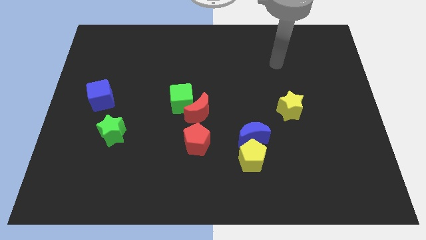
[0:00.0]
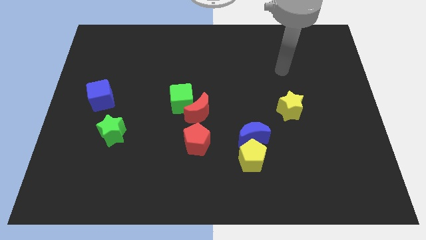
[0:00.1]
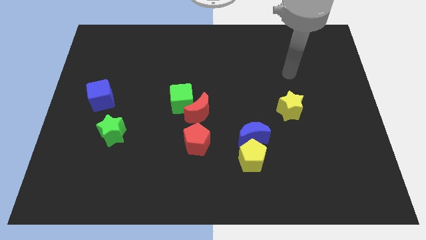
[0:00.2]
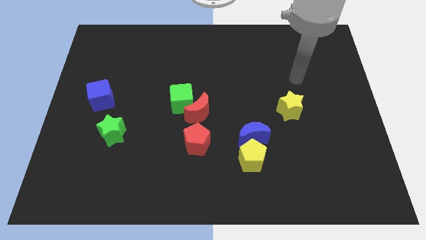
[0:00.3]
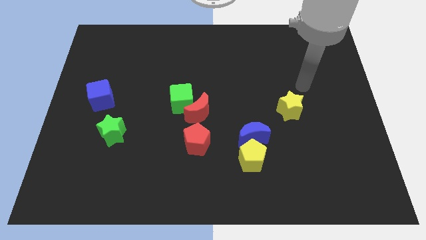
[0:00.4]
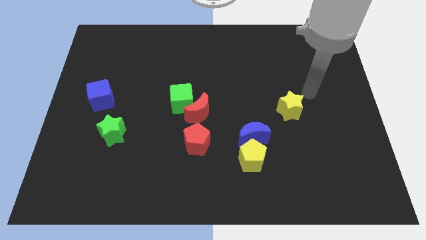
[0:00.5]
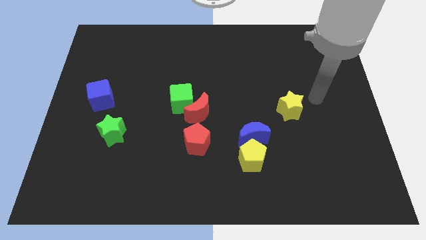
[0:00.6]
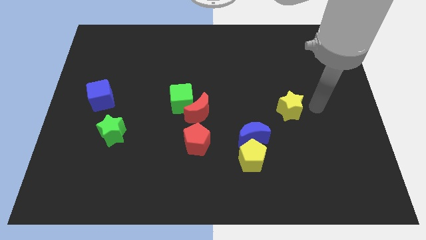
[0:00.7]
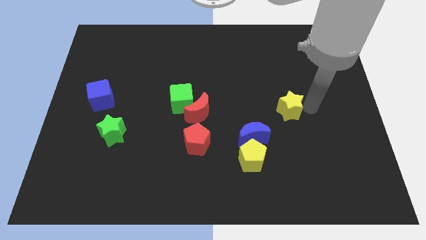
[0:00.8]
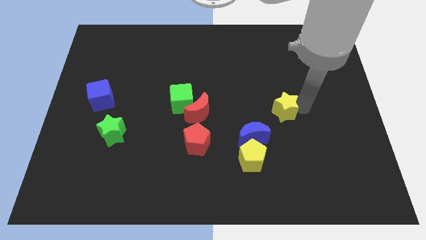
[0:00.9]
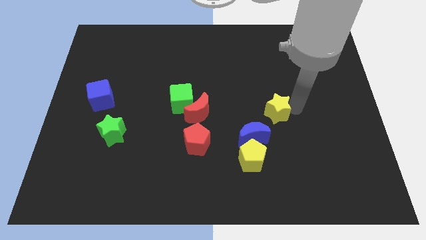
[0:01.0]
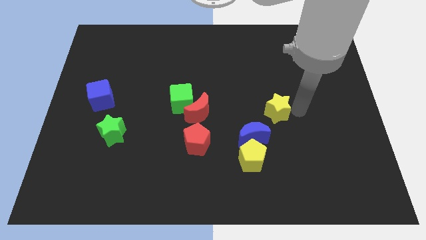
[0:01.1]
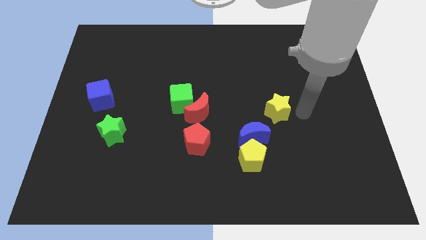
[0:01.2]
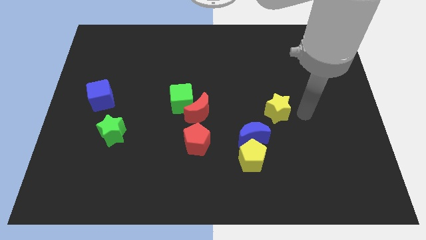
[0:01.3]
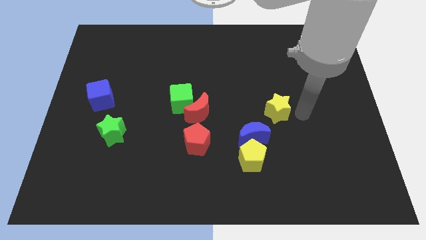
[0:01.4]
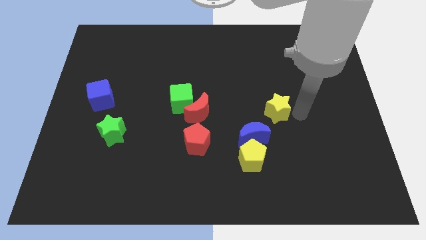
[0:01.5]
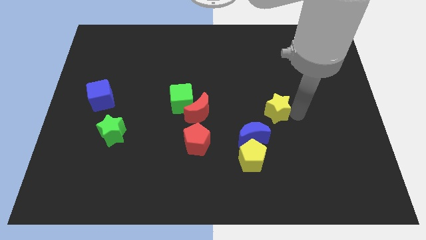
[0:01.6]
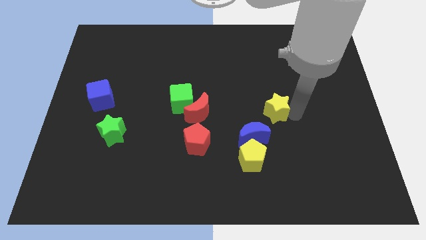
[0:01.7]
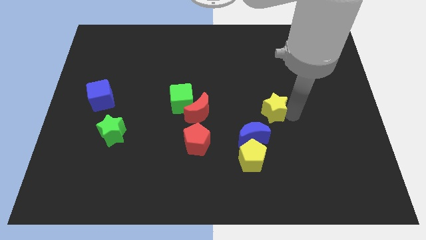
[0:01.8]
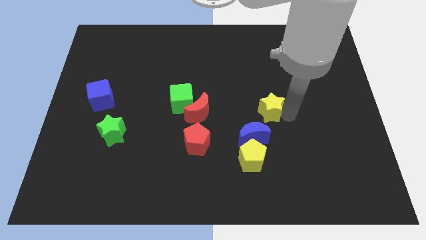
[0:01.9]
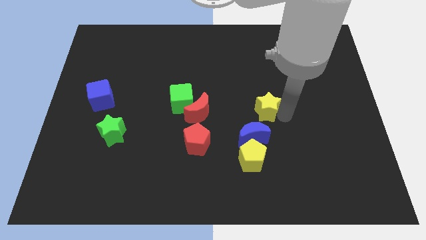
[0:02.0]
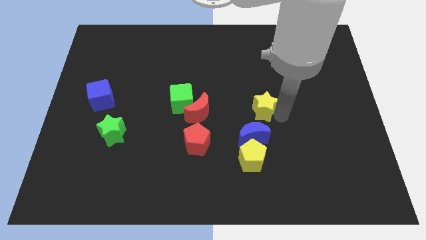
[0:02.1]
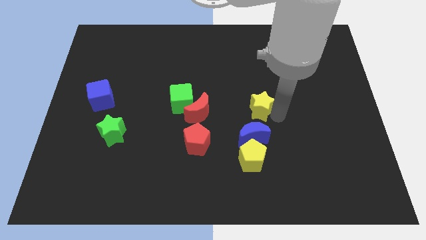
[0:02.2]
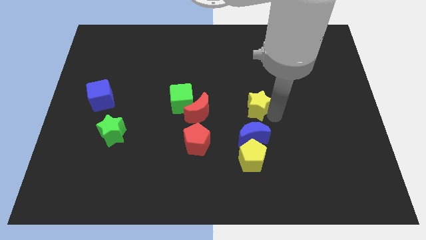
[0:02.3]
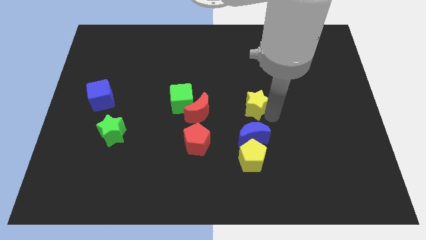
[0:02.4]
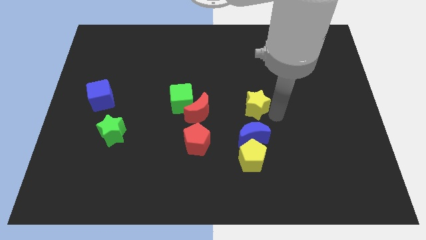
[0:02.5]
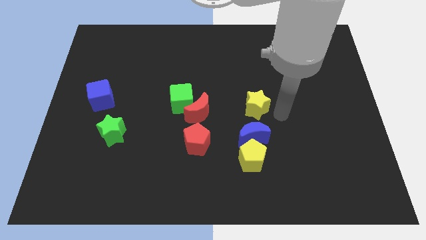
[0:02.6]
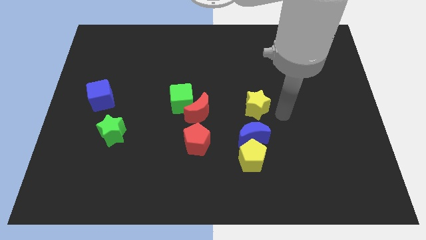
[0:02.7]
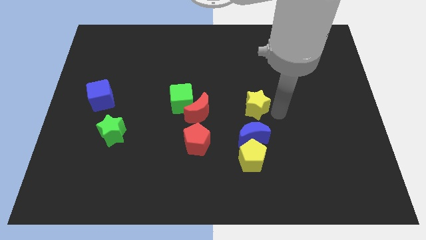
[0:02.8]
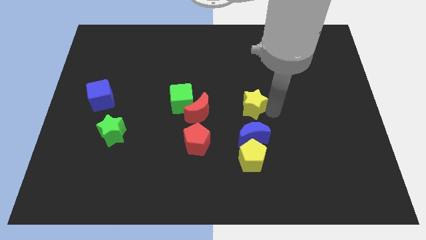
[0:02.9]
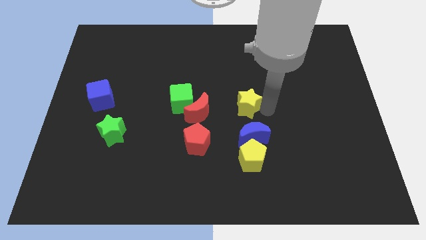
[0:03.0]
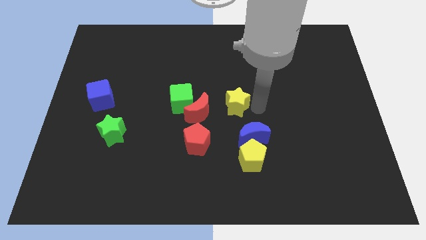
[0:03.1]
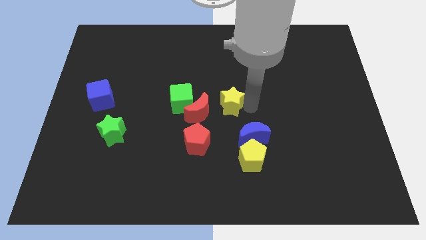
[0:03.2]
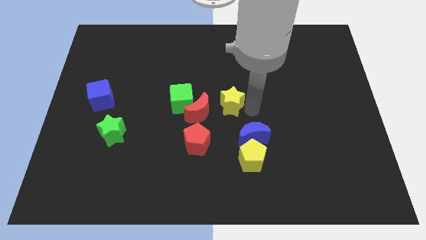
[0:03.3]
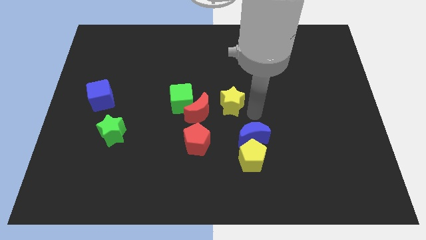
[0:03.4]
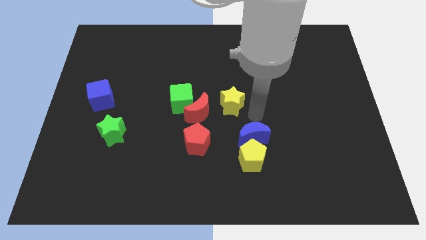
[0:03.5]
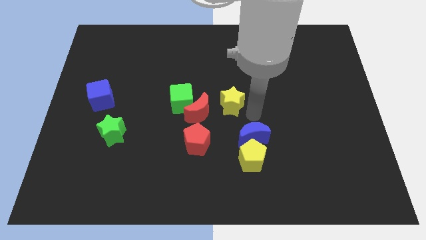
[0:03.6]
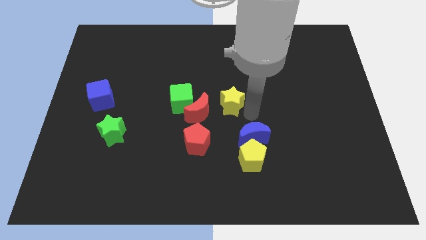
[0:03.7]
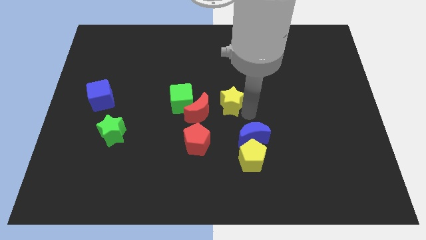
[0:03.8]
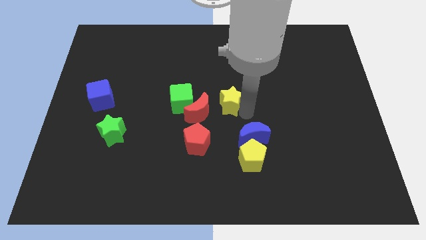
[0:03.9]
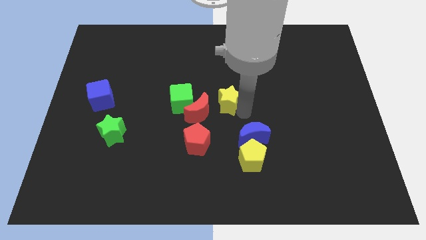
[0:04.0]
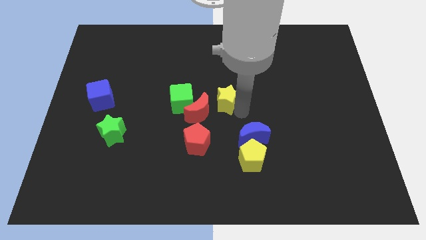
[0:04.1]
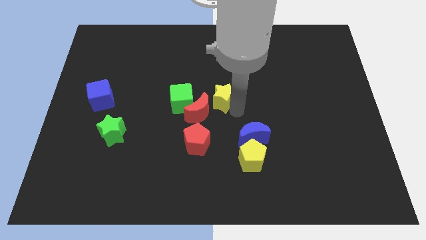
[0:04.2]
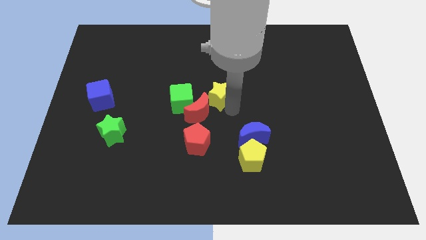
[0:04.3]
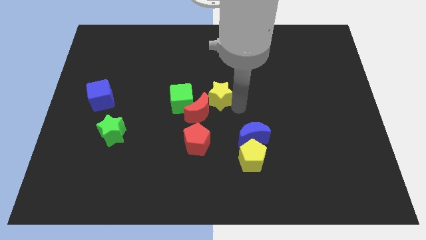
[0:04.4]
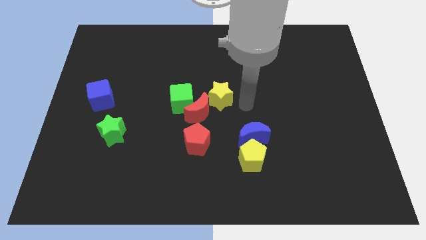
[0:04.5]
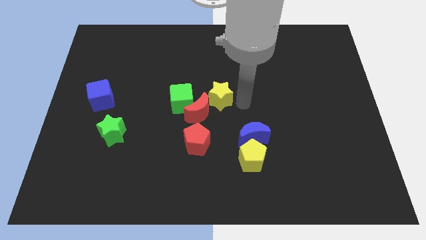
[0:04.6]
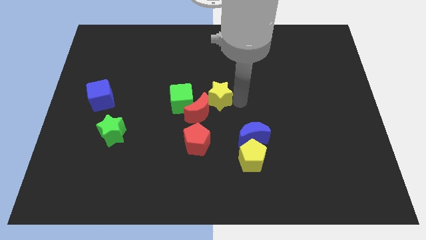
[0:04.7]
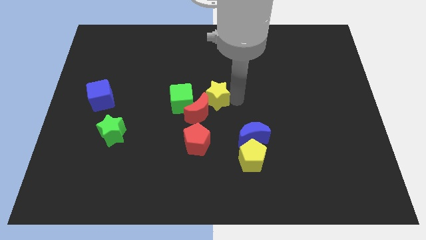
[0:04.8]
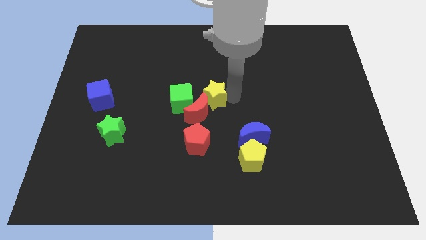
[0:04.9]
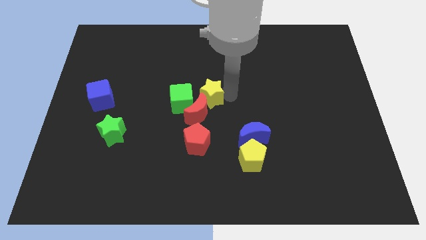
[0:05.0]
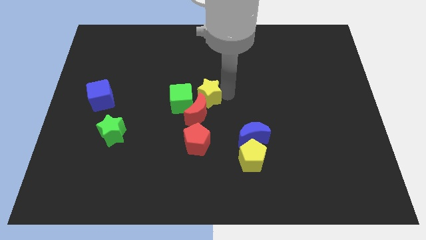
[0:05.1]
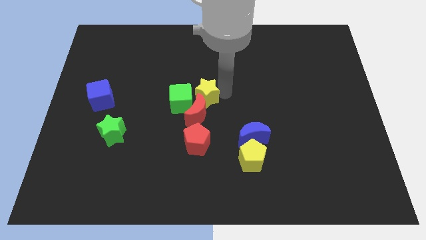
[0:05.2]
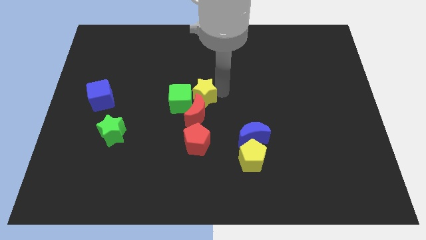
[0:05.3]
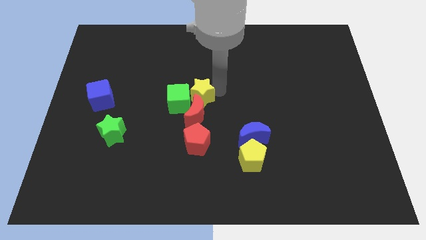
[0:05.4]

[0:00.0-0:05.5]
slide the yellow star to the left

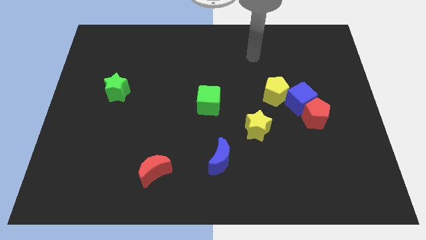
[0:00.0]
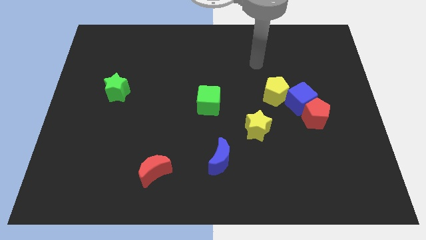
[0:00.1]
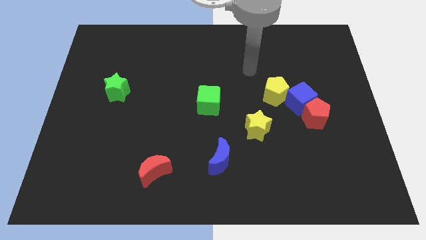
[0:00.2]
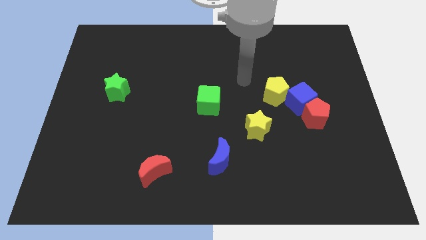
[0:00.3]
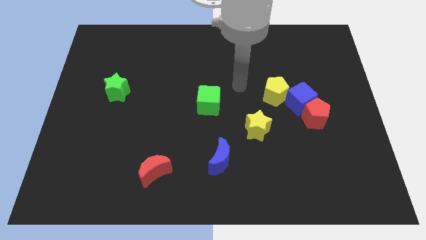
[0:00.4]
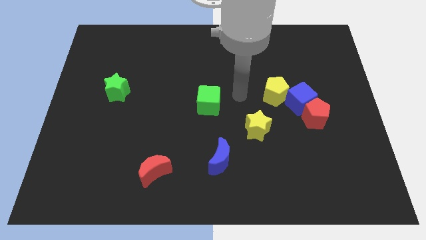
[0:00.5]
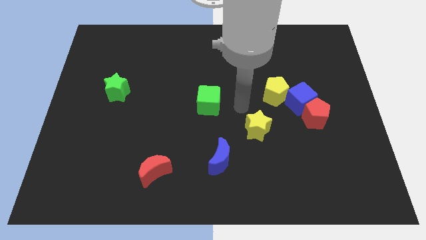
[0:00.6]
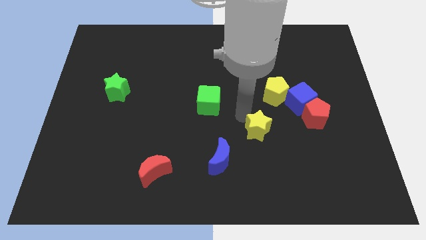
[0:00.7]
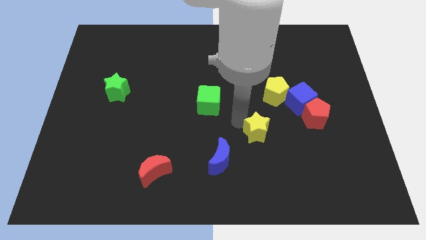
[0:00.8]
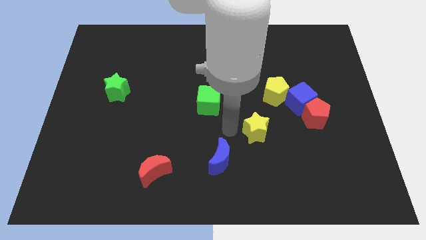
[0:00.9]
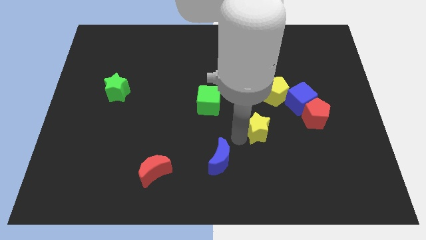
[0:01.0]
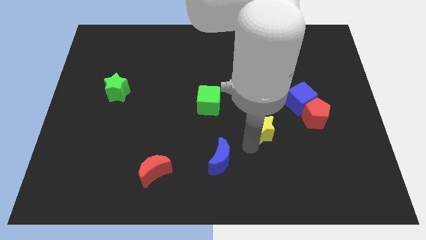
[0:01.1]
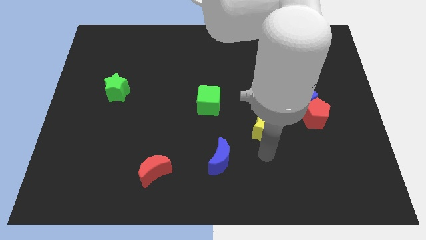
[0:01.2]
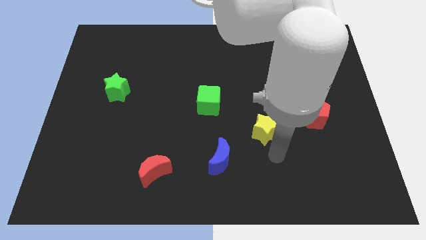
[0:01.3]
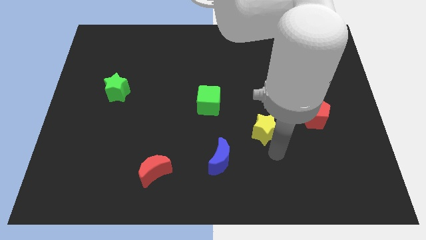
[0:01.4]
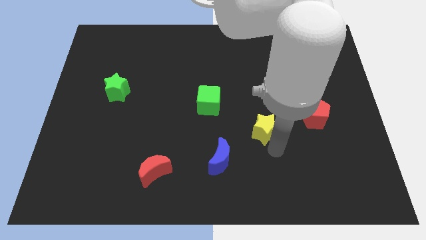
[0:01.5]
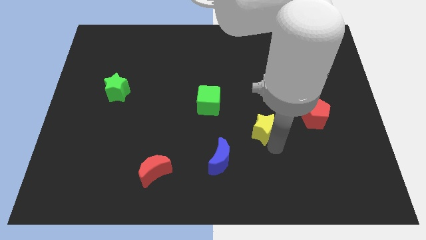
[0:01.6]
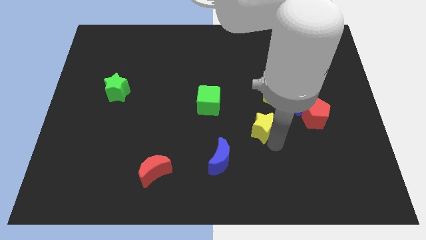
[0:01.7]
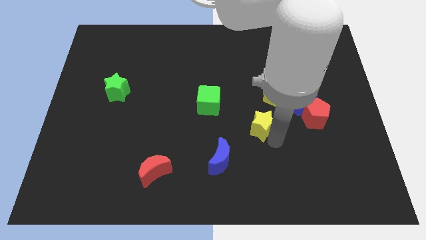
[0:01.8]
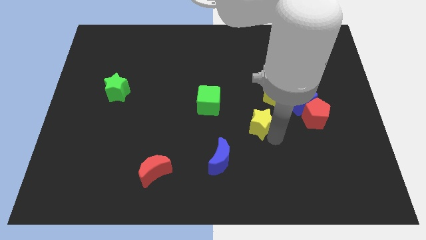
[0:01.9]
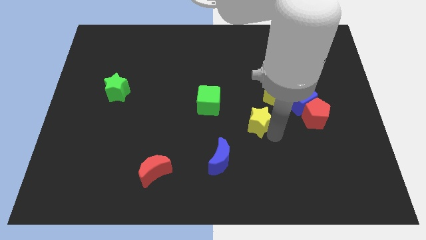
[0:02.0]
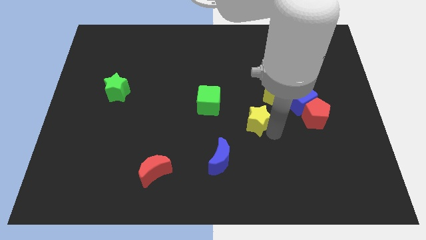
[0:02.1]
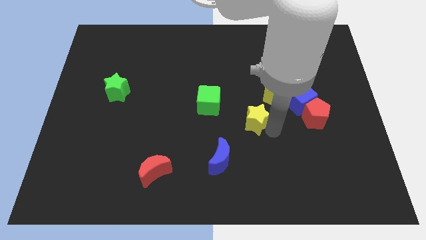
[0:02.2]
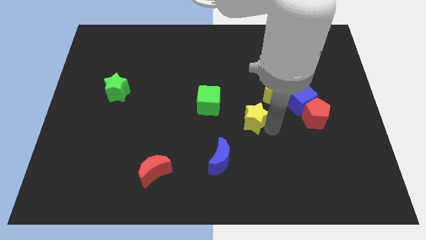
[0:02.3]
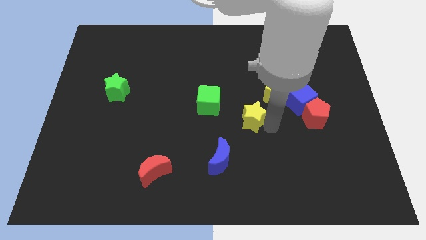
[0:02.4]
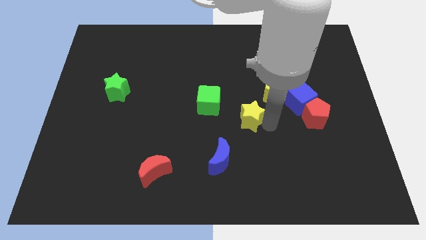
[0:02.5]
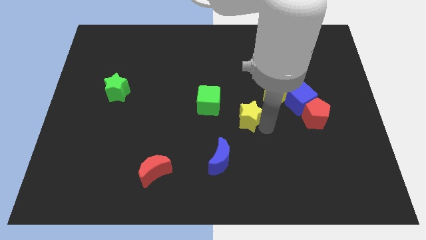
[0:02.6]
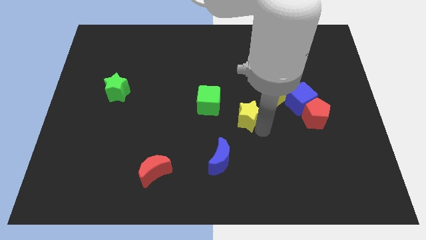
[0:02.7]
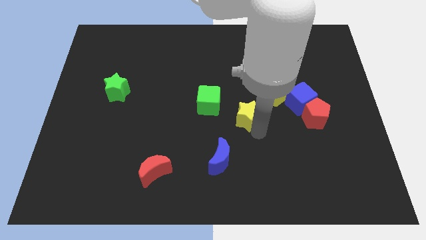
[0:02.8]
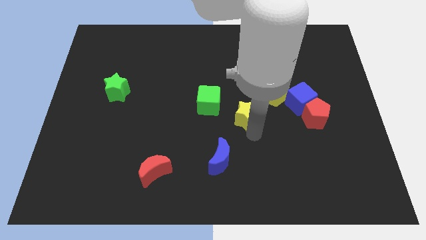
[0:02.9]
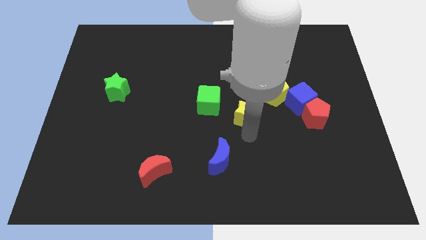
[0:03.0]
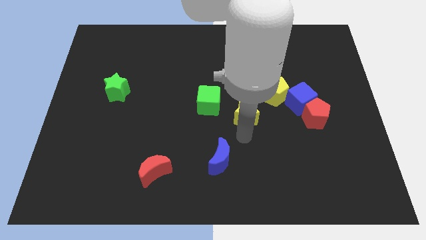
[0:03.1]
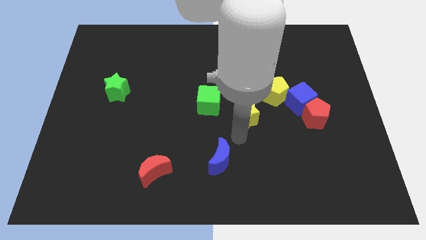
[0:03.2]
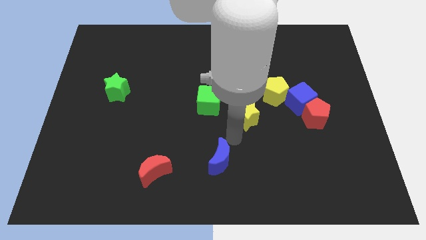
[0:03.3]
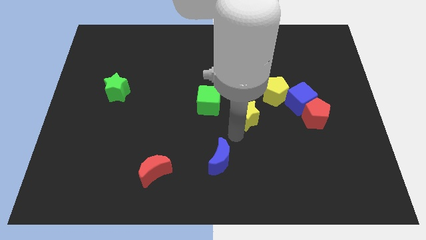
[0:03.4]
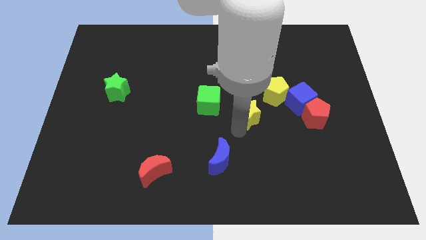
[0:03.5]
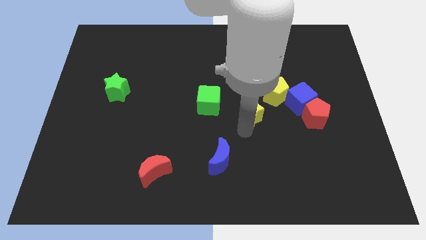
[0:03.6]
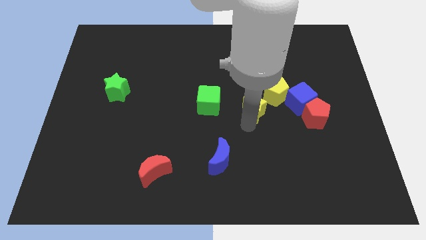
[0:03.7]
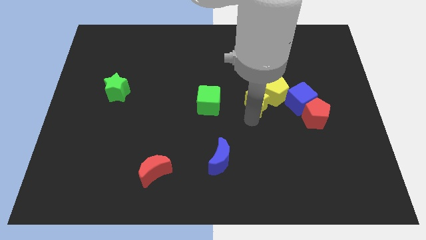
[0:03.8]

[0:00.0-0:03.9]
move the yellow star somewhat upwards
